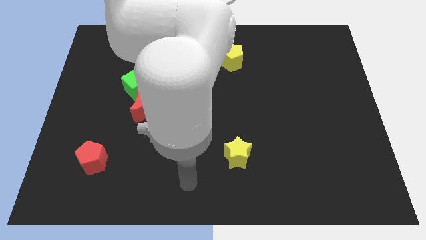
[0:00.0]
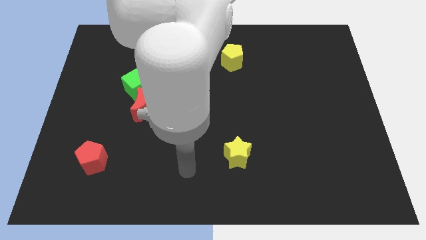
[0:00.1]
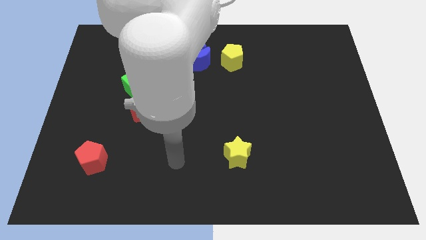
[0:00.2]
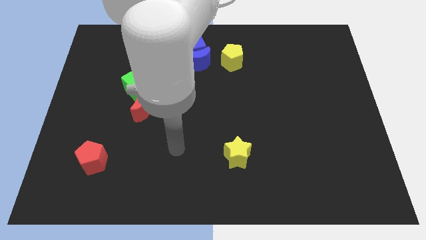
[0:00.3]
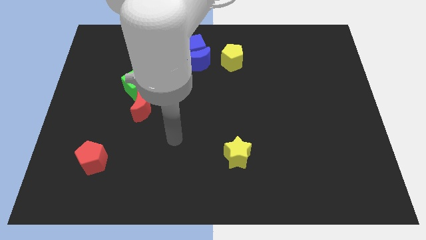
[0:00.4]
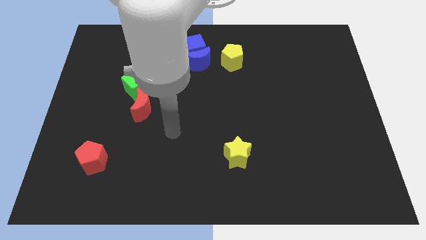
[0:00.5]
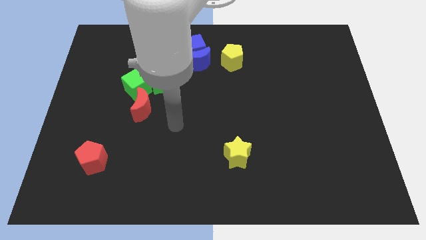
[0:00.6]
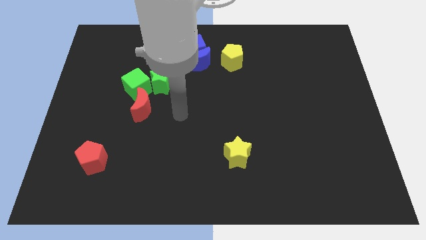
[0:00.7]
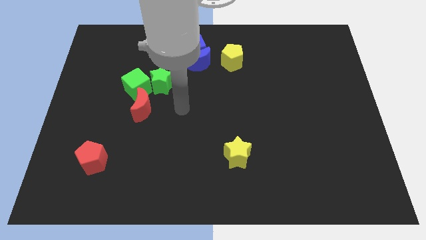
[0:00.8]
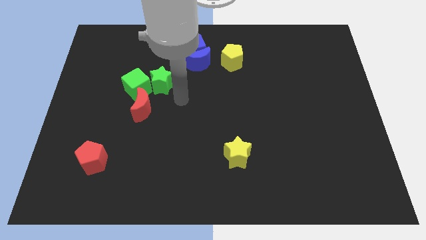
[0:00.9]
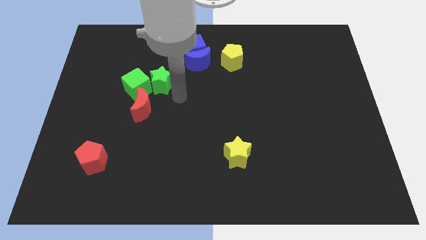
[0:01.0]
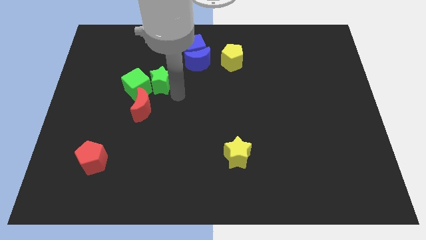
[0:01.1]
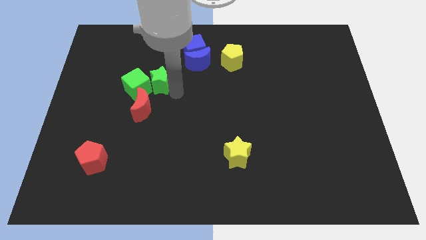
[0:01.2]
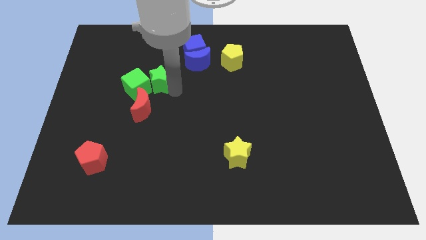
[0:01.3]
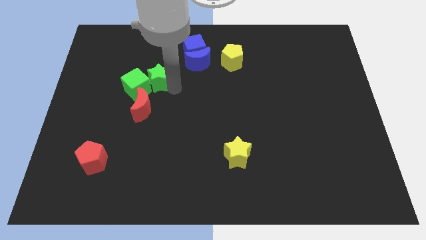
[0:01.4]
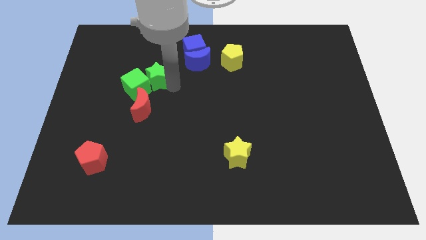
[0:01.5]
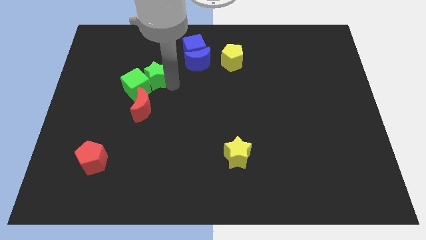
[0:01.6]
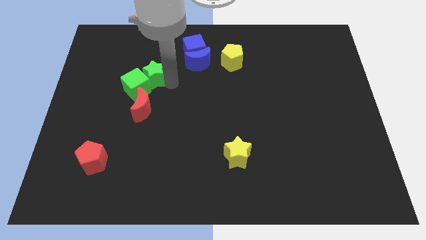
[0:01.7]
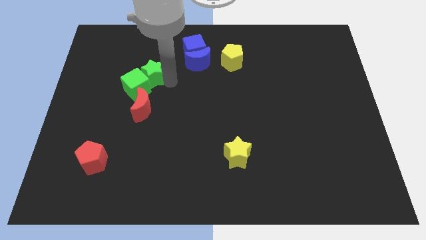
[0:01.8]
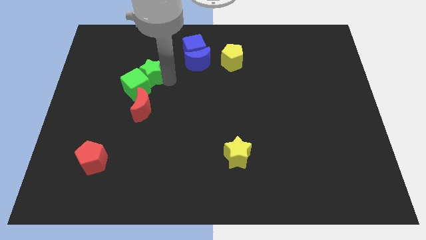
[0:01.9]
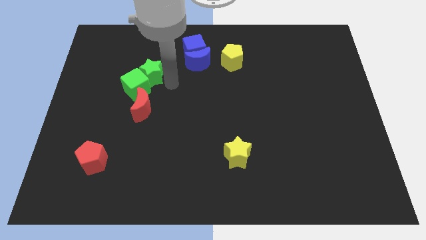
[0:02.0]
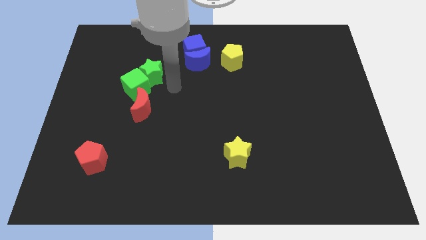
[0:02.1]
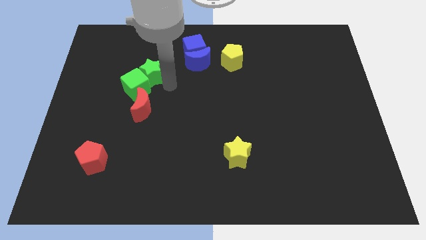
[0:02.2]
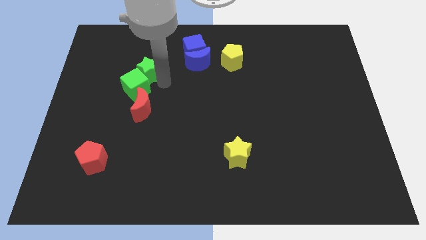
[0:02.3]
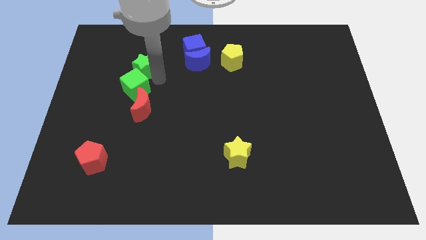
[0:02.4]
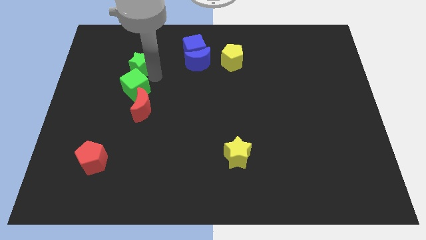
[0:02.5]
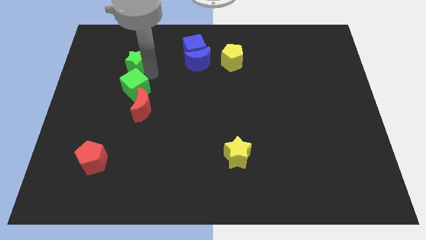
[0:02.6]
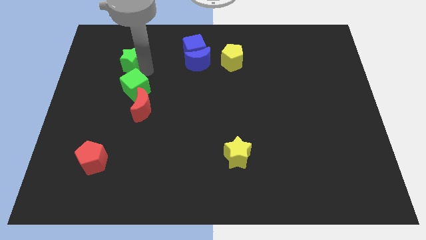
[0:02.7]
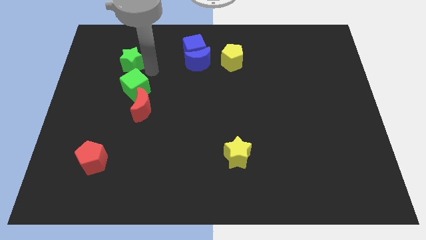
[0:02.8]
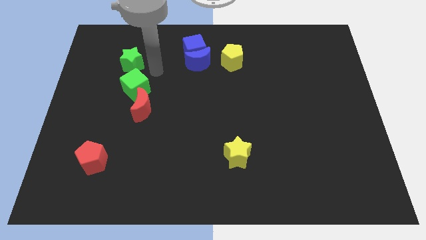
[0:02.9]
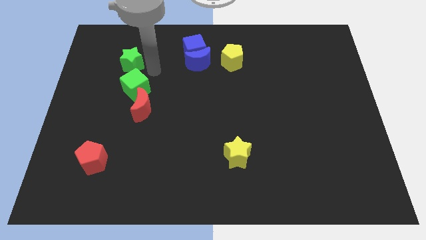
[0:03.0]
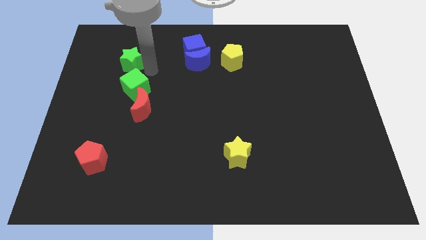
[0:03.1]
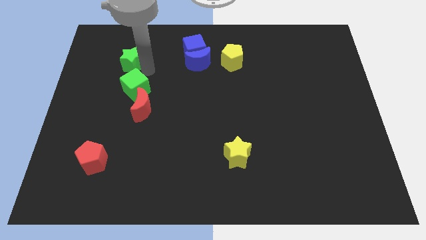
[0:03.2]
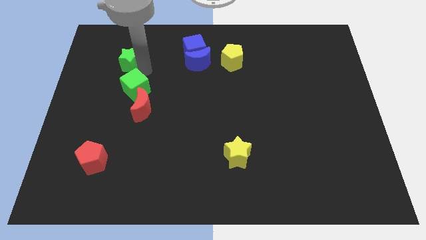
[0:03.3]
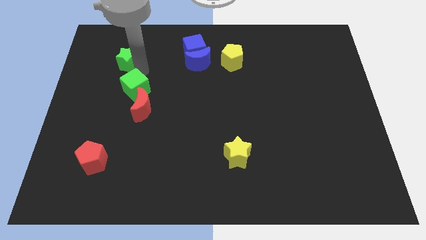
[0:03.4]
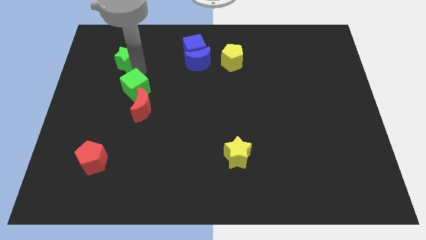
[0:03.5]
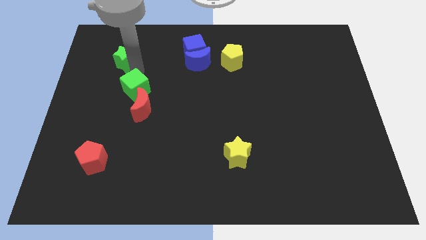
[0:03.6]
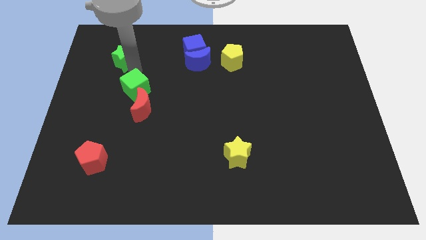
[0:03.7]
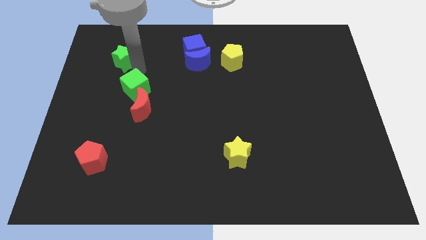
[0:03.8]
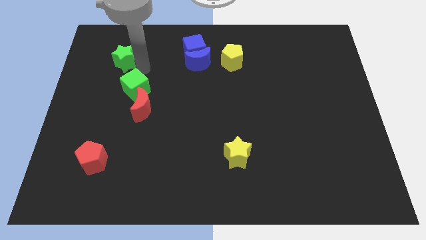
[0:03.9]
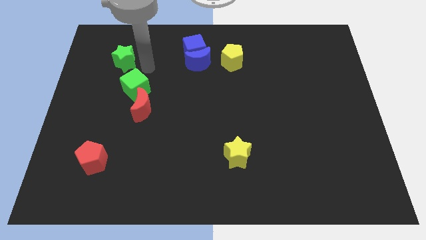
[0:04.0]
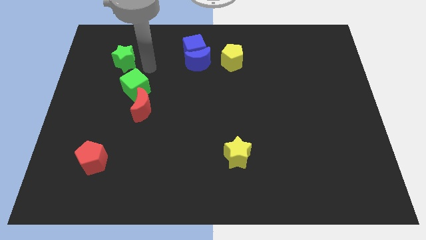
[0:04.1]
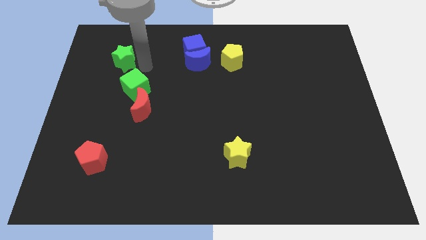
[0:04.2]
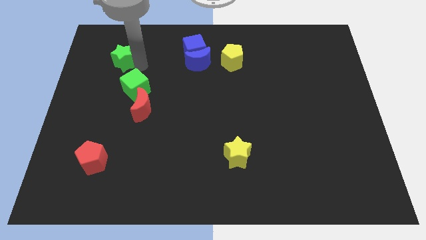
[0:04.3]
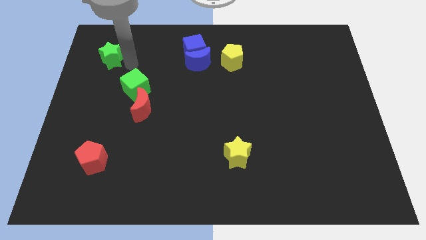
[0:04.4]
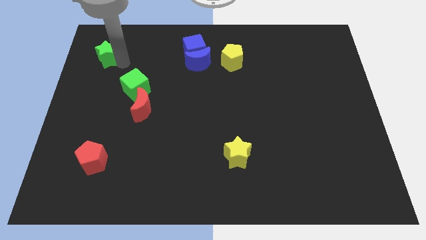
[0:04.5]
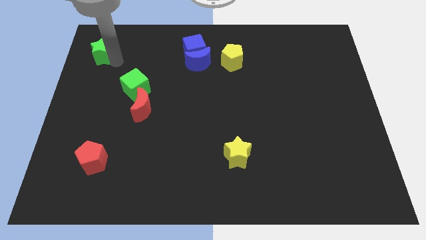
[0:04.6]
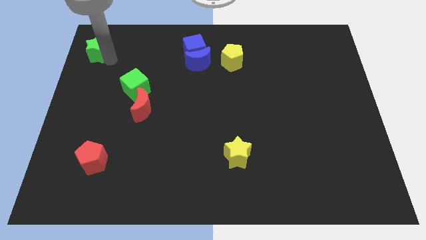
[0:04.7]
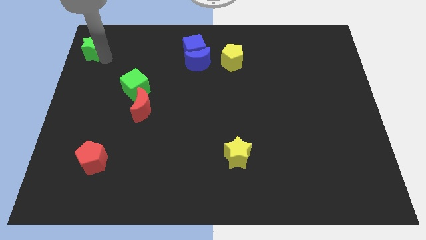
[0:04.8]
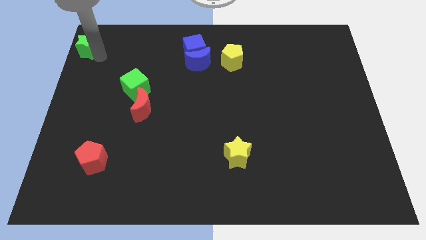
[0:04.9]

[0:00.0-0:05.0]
put the green star to the top left of the board

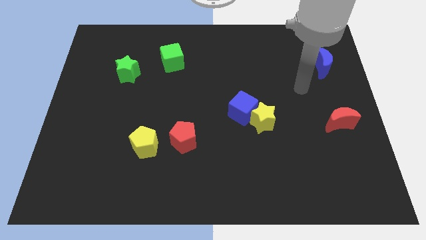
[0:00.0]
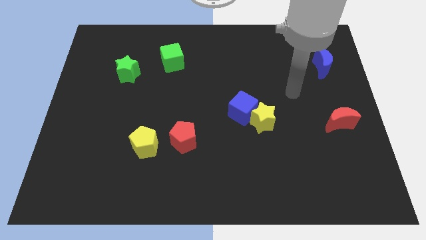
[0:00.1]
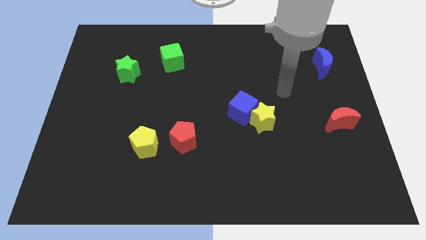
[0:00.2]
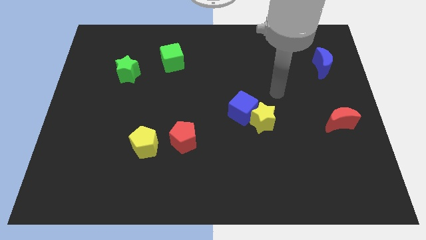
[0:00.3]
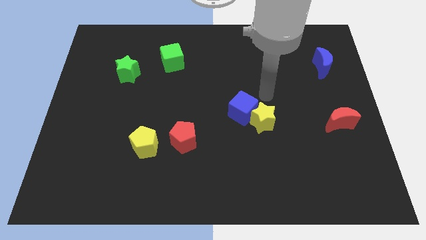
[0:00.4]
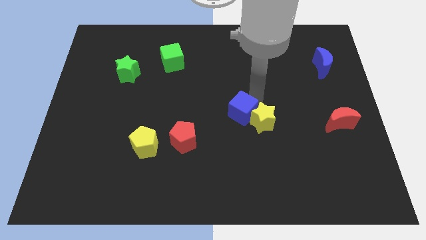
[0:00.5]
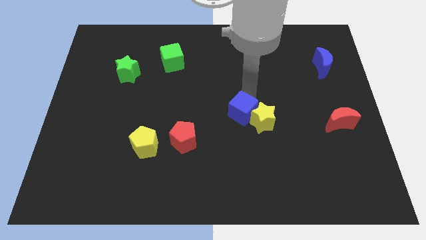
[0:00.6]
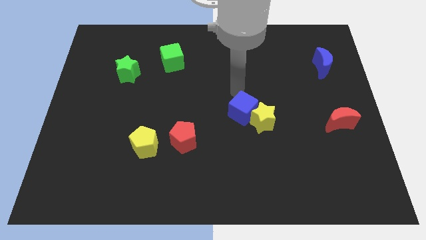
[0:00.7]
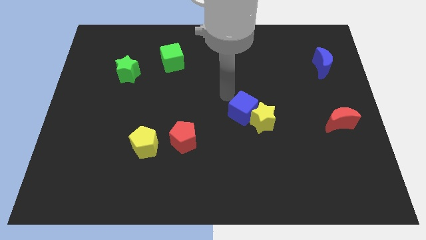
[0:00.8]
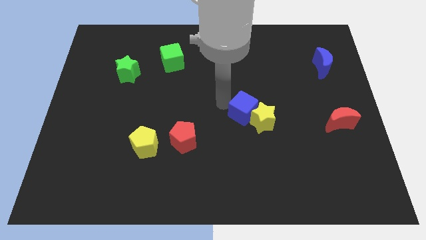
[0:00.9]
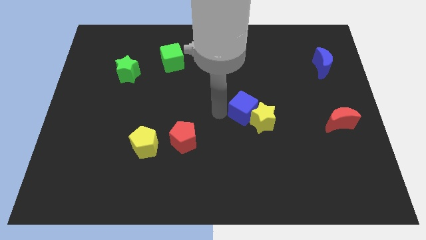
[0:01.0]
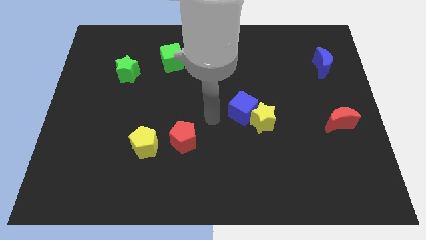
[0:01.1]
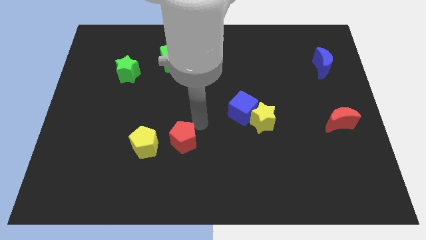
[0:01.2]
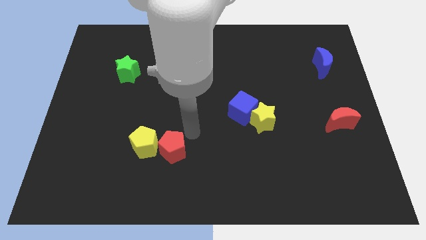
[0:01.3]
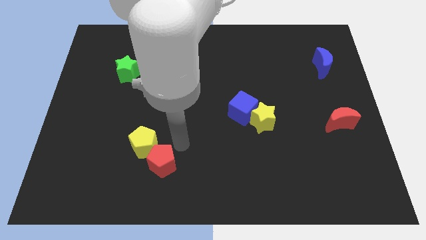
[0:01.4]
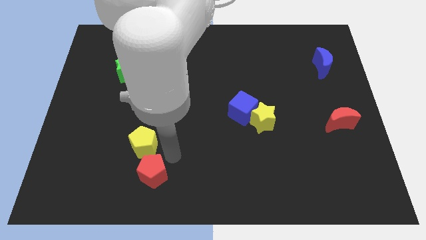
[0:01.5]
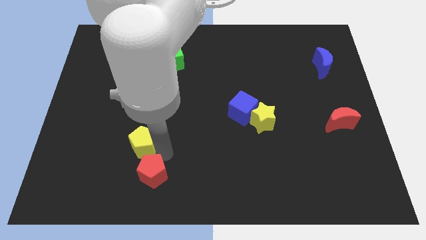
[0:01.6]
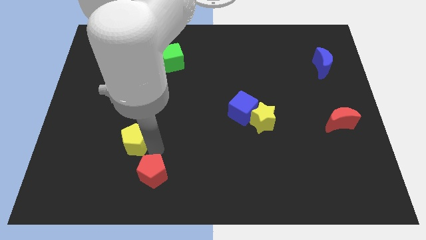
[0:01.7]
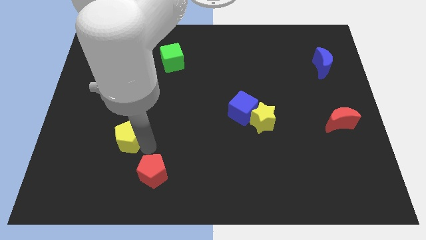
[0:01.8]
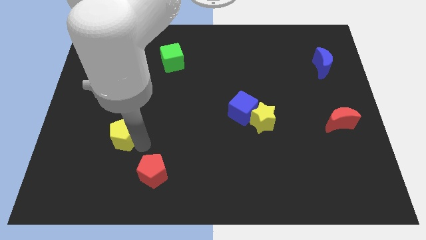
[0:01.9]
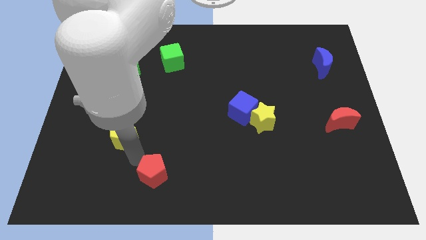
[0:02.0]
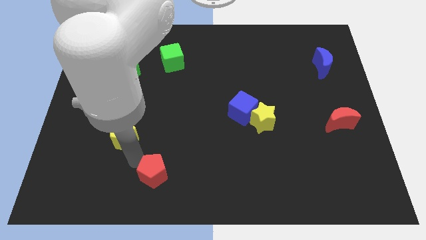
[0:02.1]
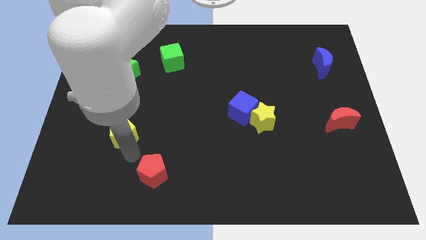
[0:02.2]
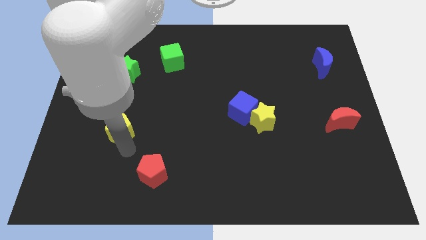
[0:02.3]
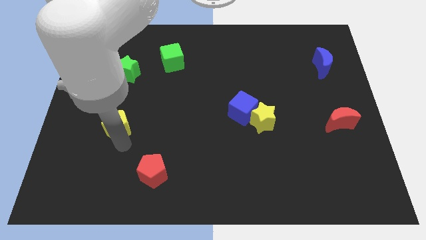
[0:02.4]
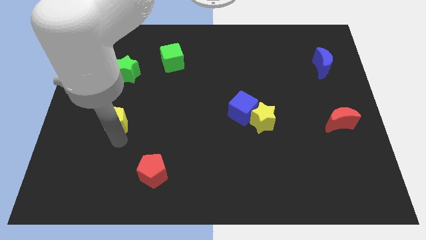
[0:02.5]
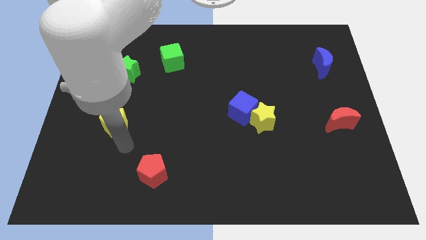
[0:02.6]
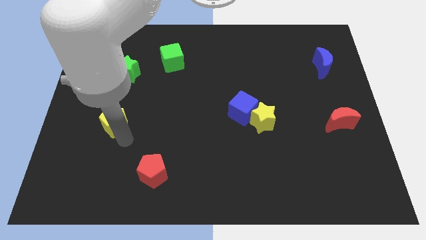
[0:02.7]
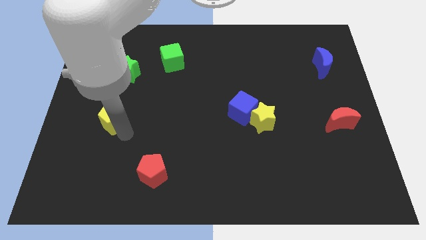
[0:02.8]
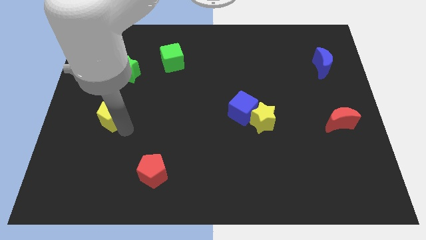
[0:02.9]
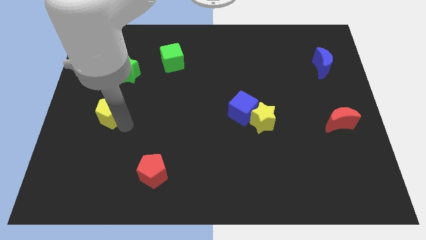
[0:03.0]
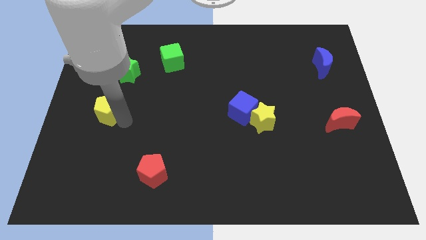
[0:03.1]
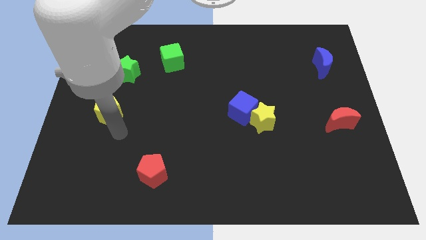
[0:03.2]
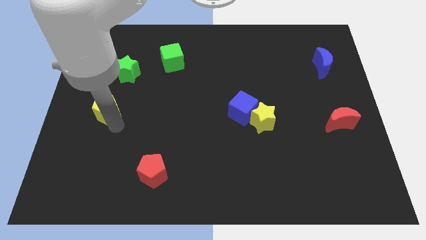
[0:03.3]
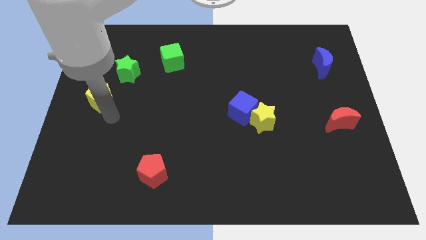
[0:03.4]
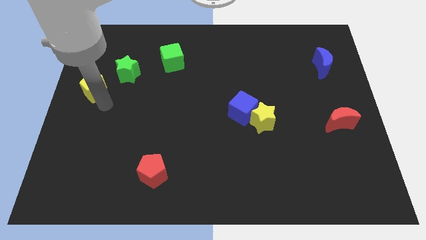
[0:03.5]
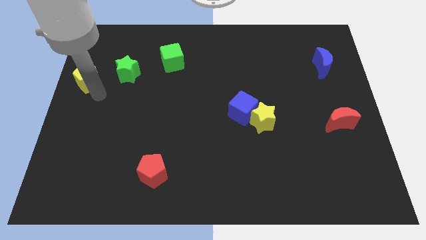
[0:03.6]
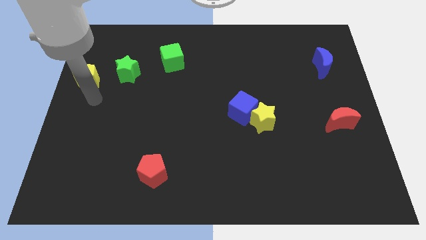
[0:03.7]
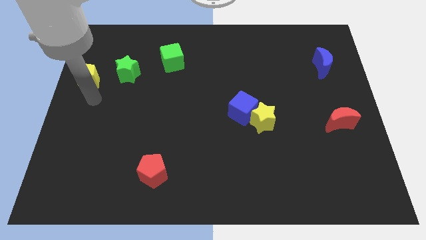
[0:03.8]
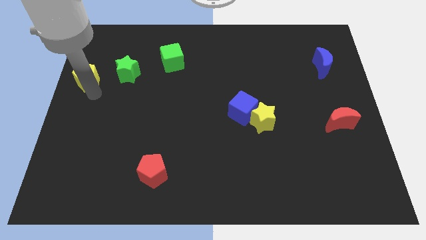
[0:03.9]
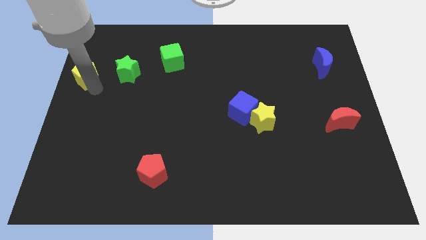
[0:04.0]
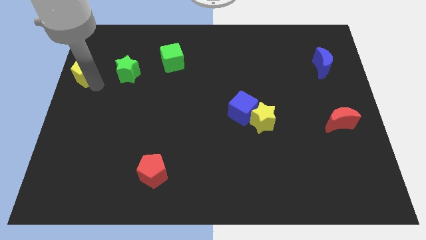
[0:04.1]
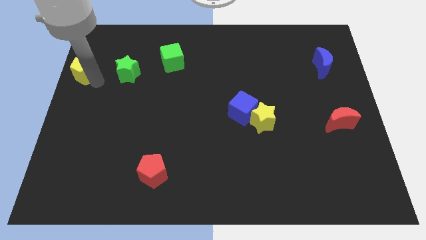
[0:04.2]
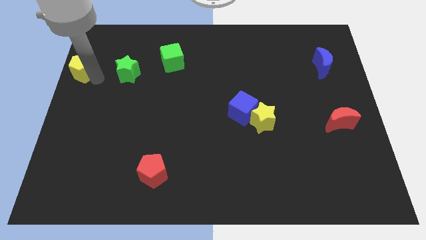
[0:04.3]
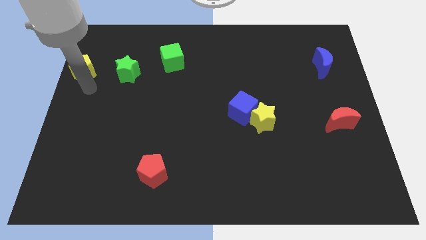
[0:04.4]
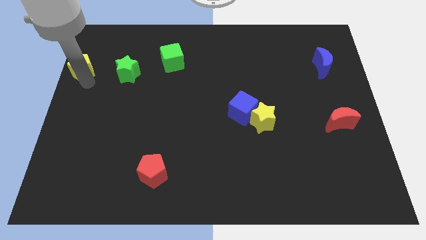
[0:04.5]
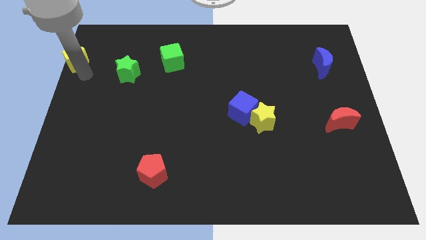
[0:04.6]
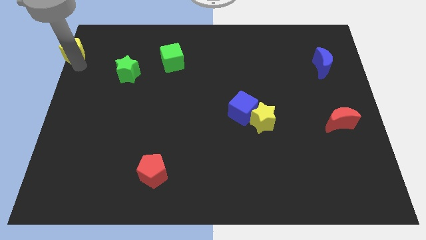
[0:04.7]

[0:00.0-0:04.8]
push the yellow pentagon to the top left
